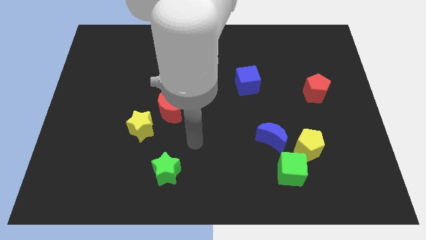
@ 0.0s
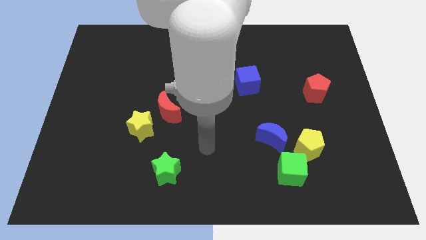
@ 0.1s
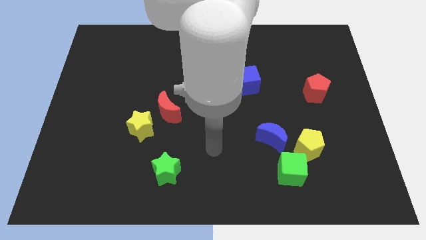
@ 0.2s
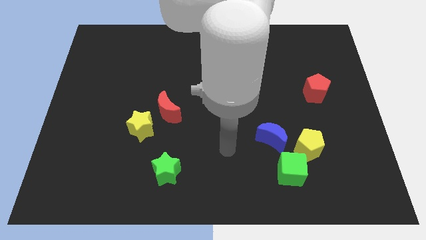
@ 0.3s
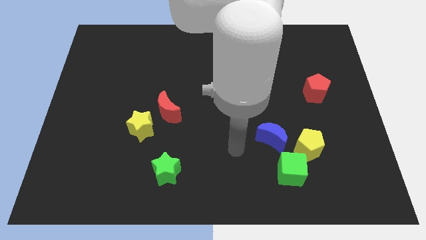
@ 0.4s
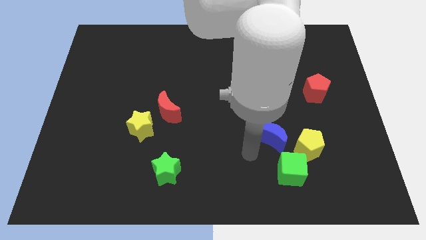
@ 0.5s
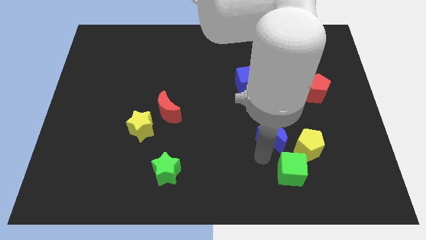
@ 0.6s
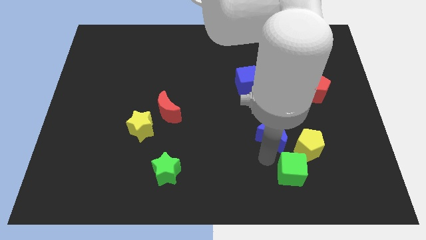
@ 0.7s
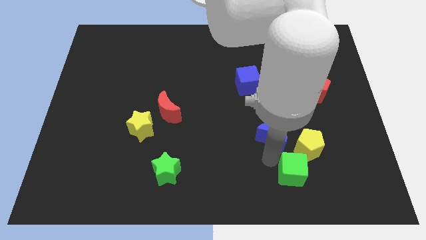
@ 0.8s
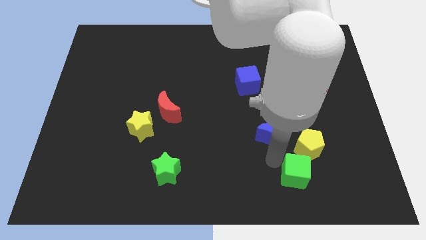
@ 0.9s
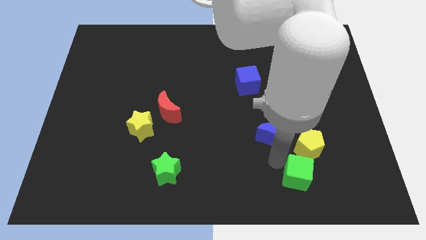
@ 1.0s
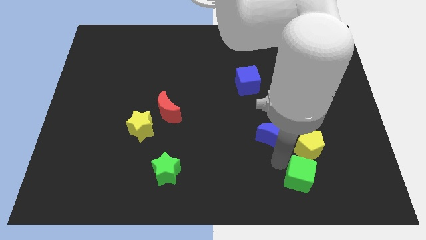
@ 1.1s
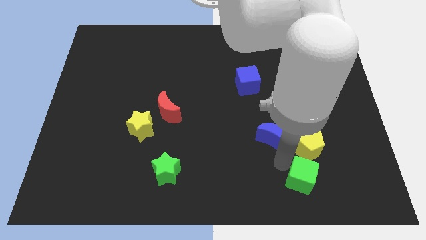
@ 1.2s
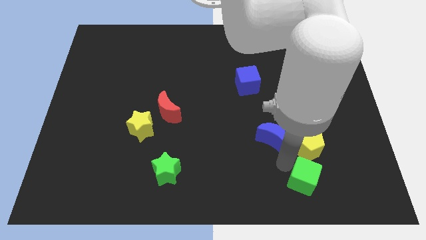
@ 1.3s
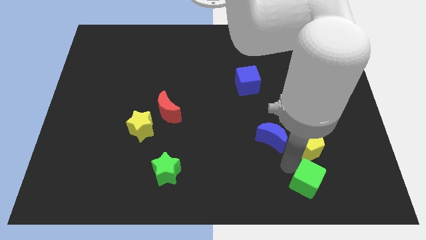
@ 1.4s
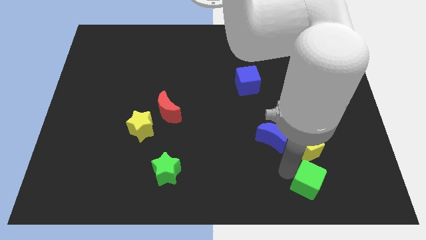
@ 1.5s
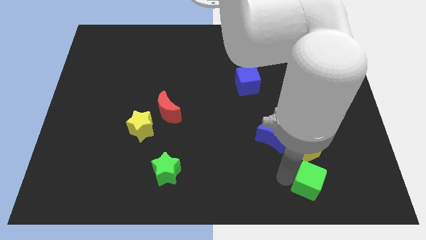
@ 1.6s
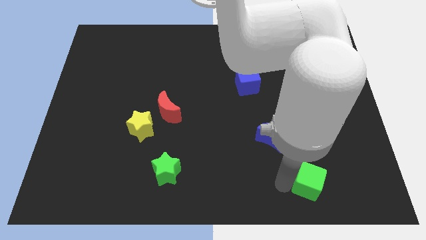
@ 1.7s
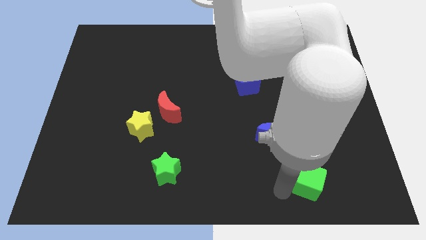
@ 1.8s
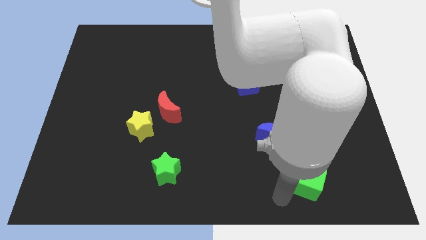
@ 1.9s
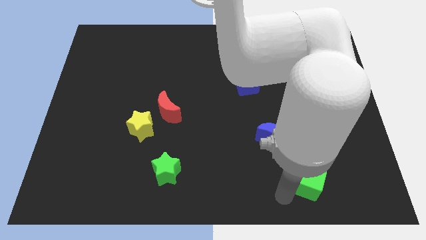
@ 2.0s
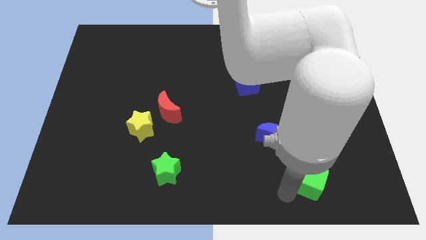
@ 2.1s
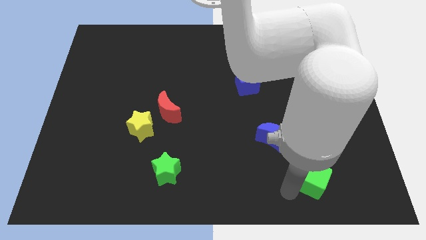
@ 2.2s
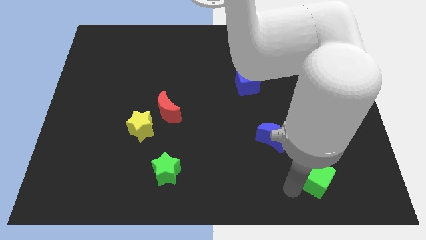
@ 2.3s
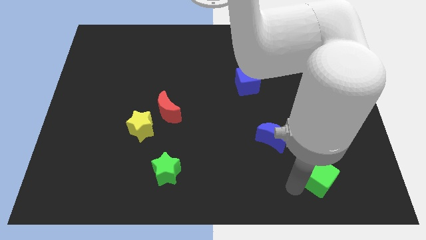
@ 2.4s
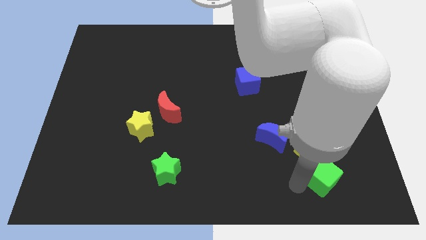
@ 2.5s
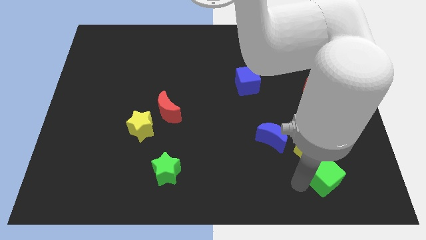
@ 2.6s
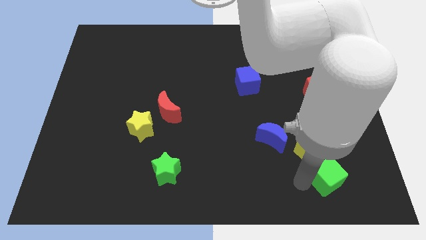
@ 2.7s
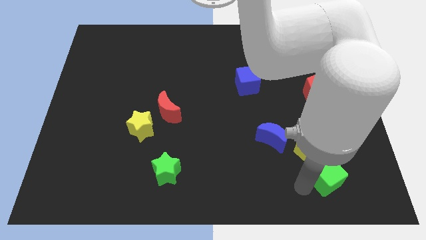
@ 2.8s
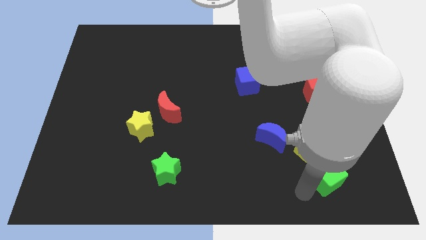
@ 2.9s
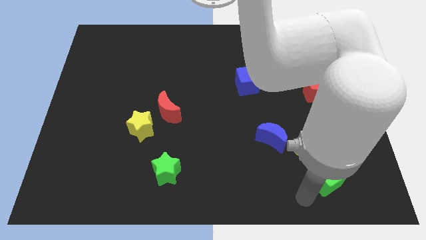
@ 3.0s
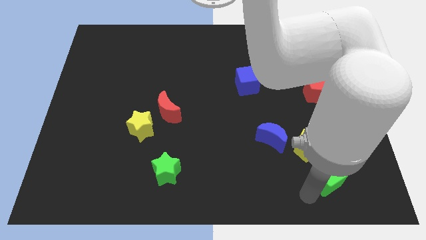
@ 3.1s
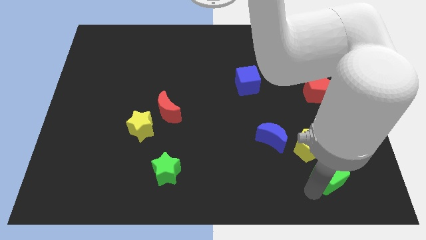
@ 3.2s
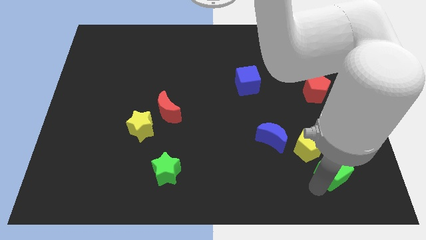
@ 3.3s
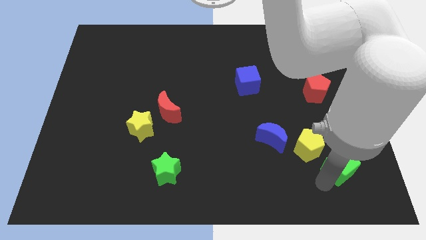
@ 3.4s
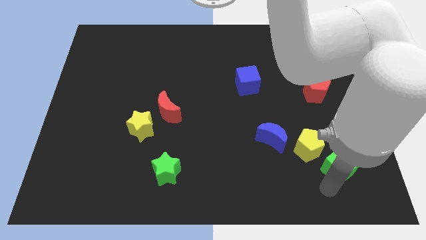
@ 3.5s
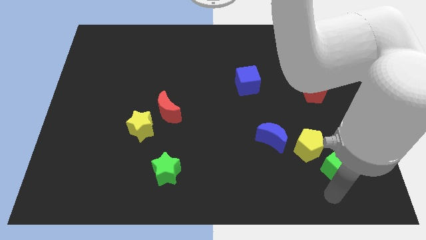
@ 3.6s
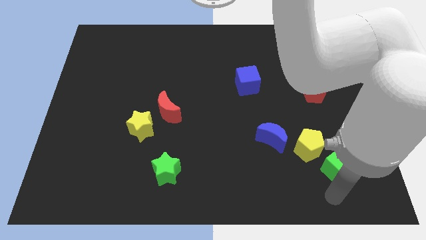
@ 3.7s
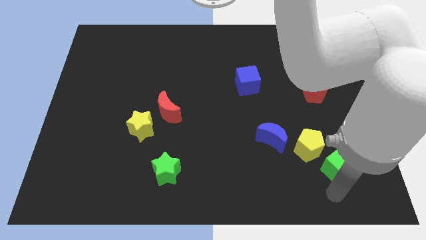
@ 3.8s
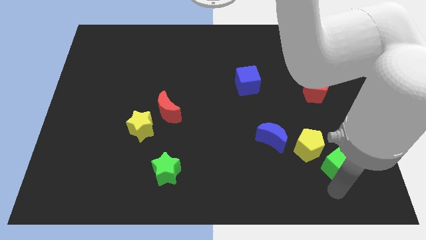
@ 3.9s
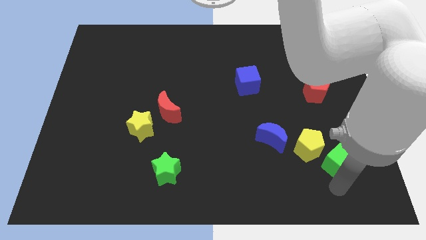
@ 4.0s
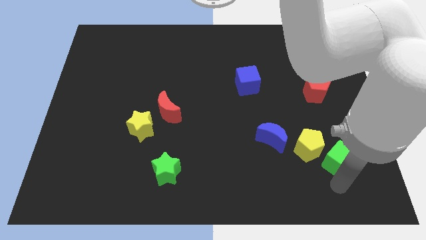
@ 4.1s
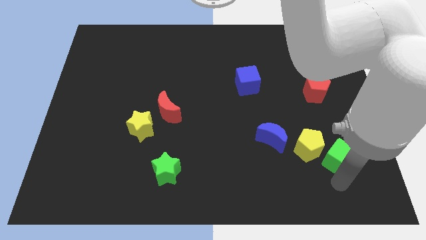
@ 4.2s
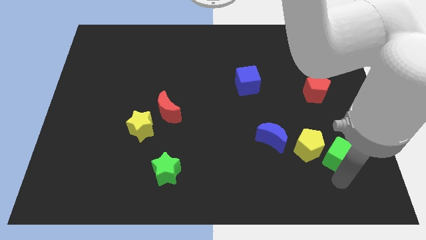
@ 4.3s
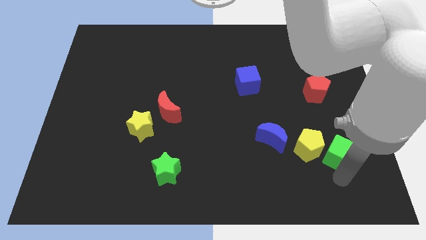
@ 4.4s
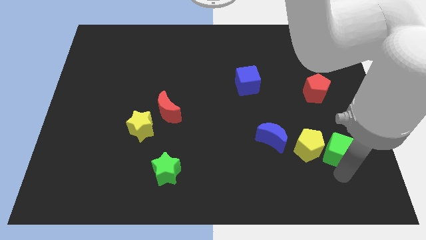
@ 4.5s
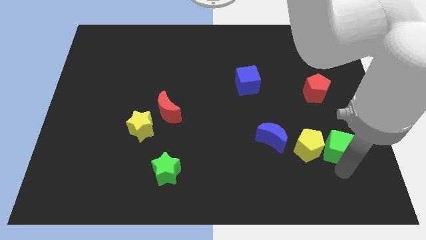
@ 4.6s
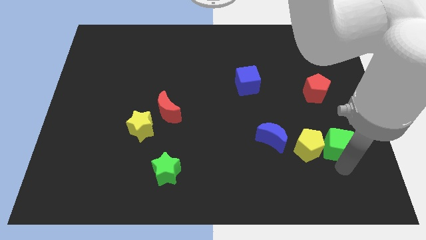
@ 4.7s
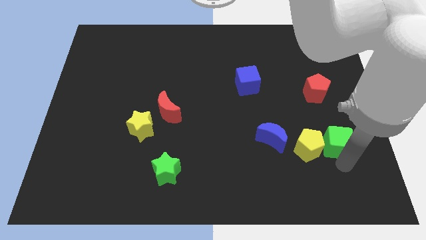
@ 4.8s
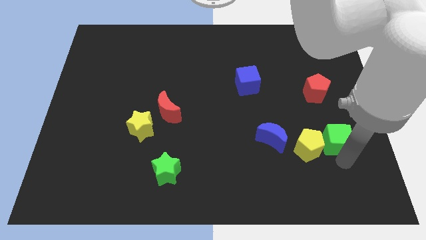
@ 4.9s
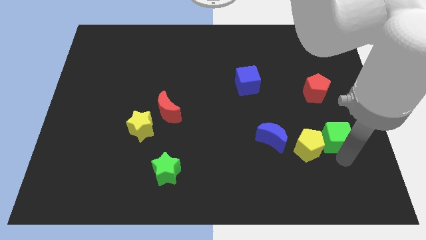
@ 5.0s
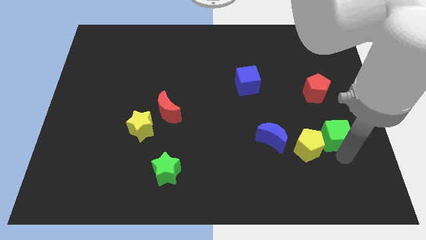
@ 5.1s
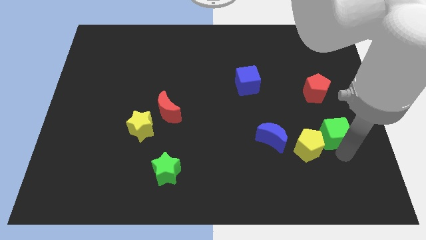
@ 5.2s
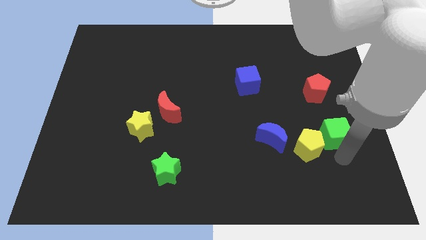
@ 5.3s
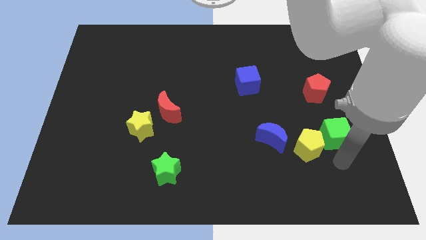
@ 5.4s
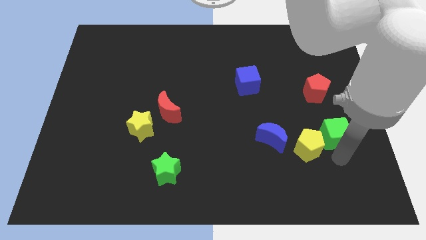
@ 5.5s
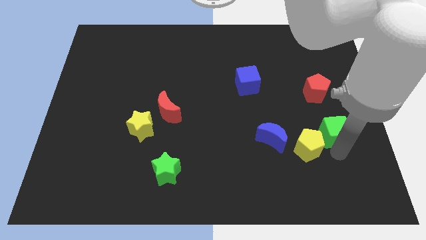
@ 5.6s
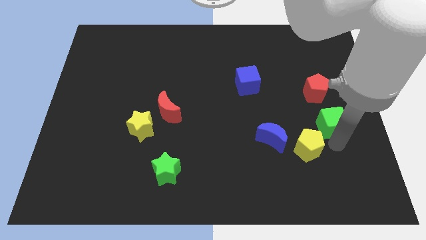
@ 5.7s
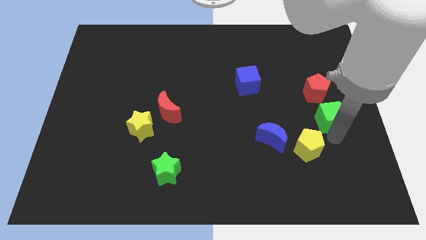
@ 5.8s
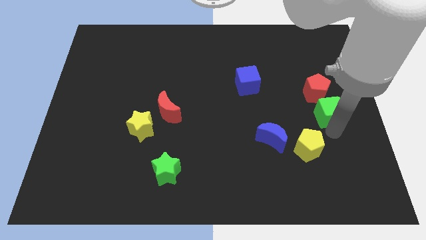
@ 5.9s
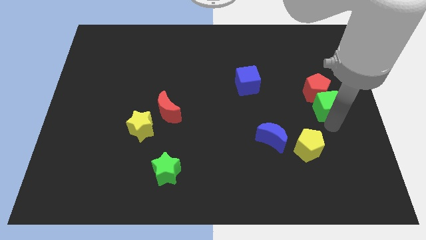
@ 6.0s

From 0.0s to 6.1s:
push the green cube next to the red pentagon

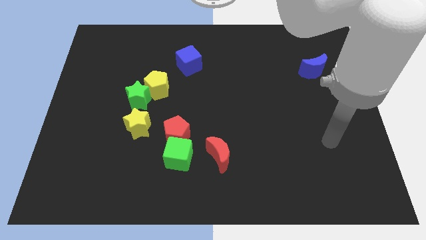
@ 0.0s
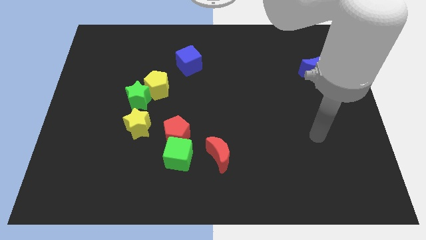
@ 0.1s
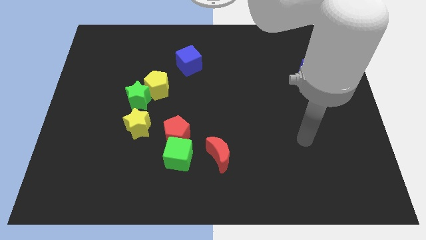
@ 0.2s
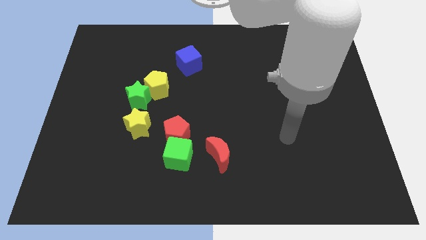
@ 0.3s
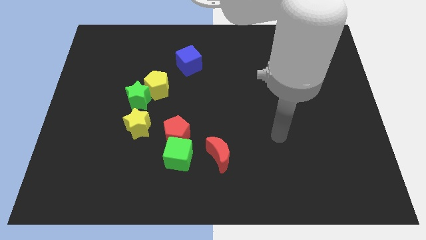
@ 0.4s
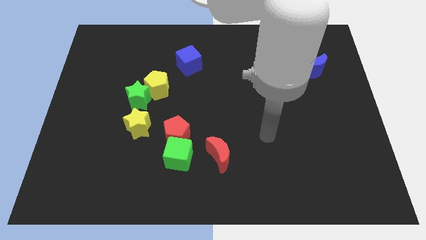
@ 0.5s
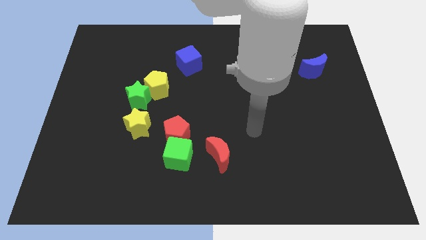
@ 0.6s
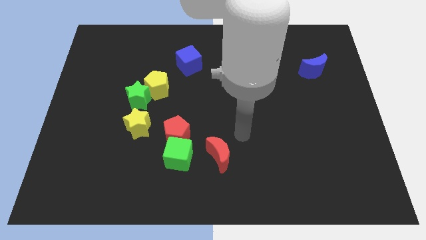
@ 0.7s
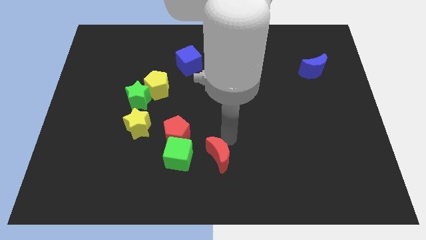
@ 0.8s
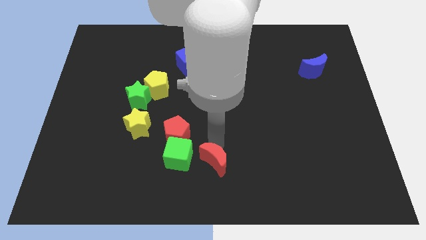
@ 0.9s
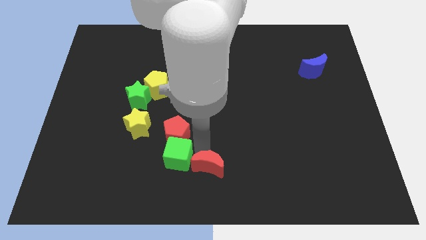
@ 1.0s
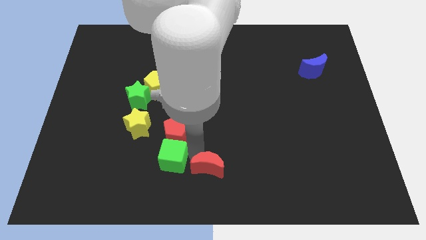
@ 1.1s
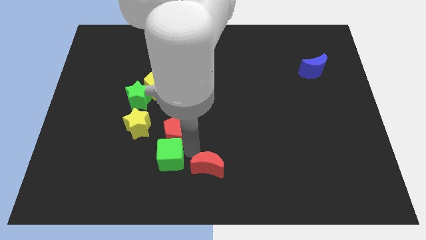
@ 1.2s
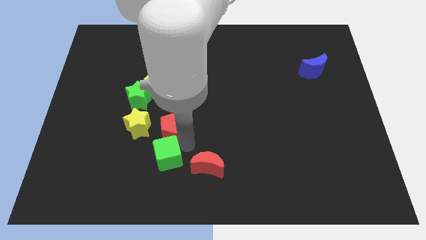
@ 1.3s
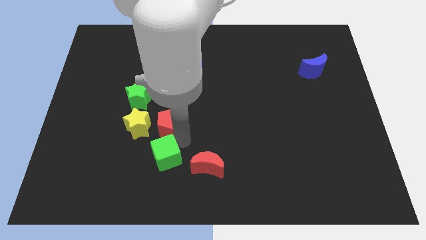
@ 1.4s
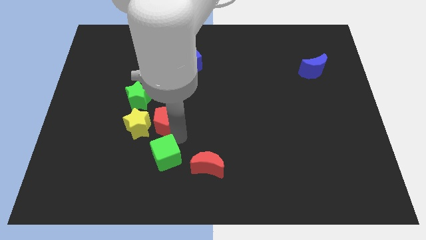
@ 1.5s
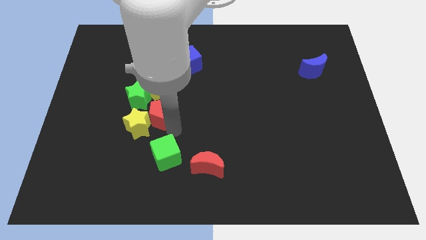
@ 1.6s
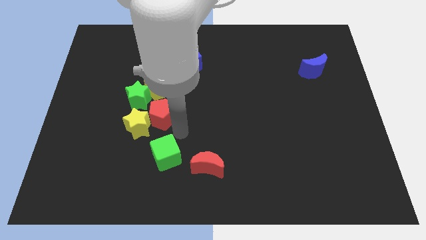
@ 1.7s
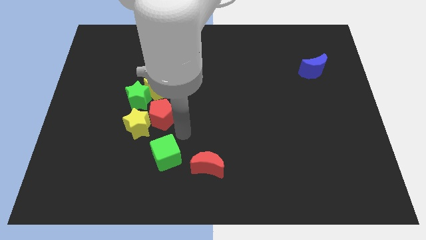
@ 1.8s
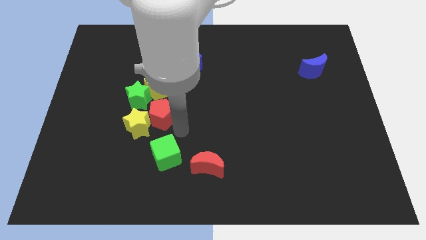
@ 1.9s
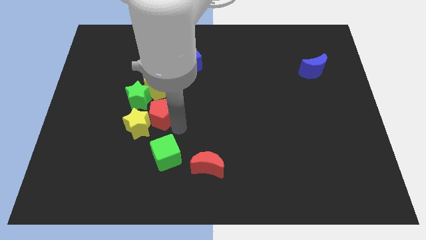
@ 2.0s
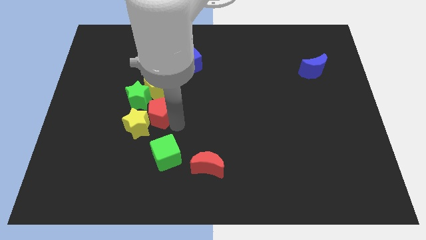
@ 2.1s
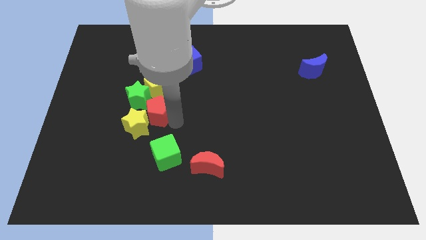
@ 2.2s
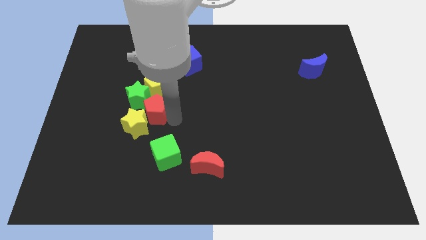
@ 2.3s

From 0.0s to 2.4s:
put the red pentagon towards the green star
